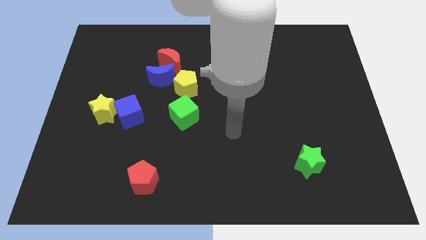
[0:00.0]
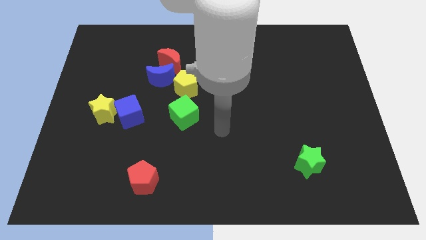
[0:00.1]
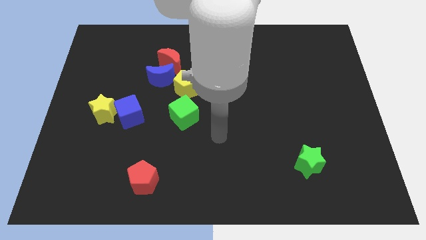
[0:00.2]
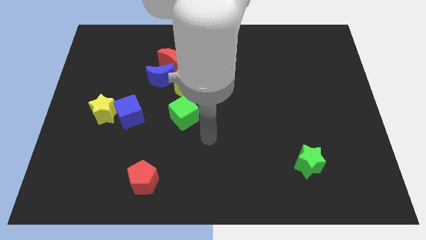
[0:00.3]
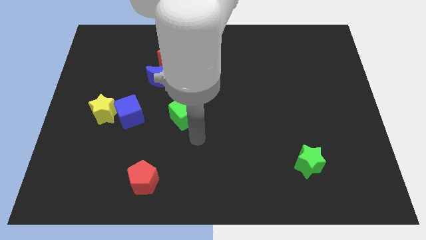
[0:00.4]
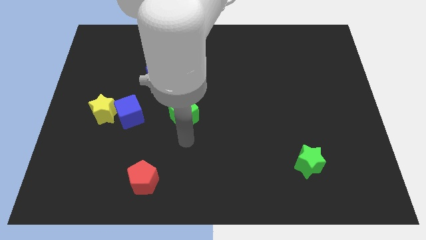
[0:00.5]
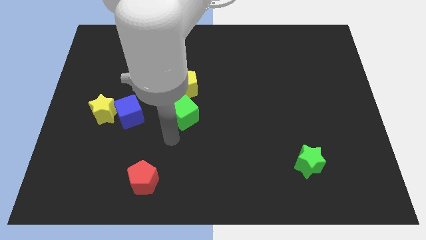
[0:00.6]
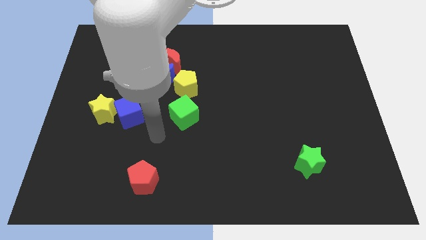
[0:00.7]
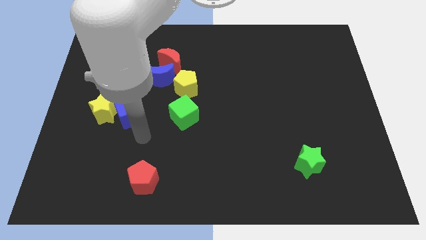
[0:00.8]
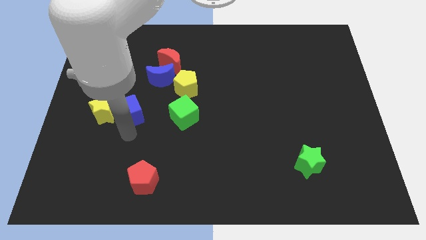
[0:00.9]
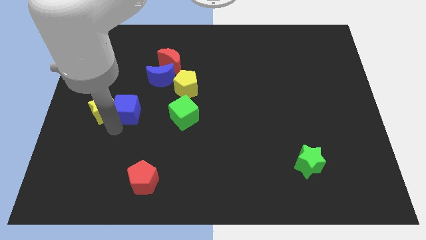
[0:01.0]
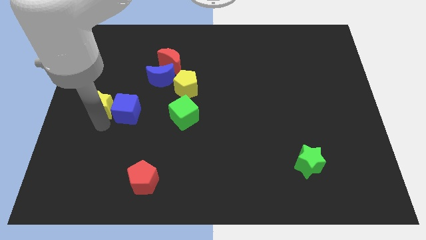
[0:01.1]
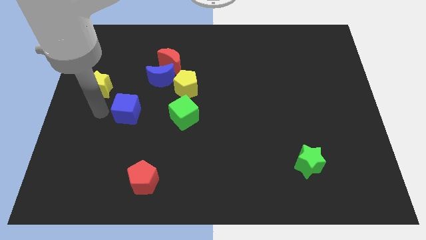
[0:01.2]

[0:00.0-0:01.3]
pull the blue cube apart from the yellow star

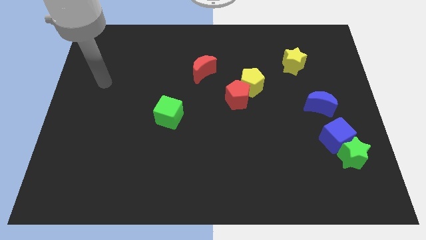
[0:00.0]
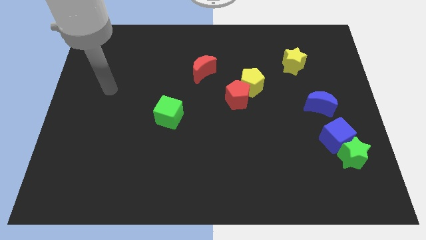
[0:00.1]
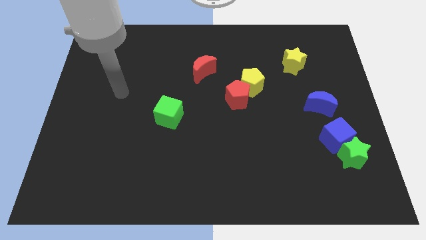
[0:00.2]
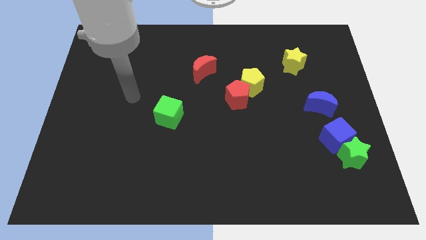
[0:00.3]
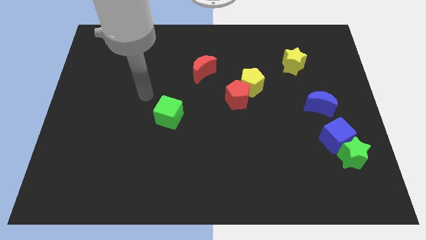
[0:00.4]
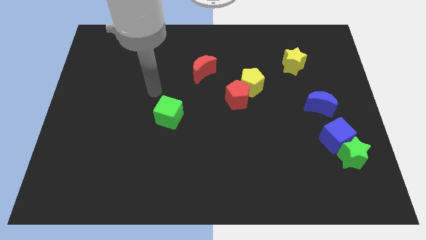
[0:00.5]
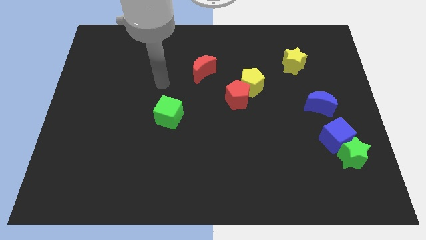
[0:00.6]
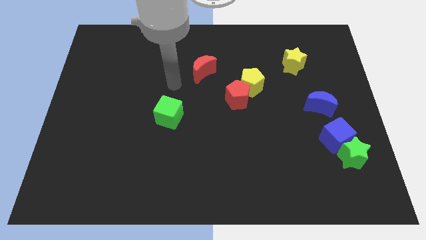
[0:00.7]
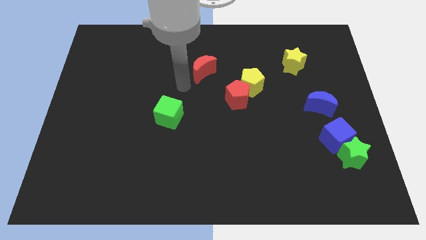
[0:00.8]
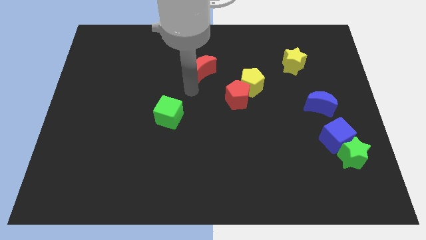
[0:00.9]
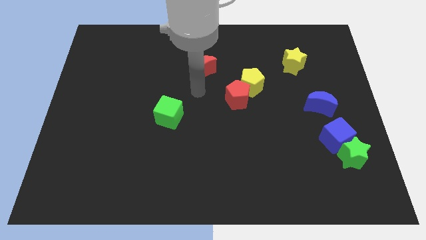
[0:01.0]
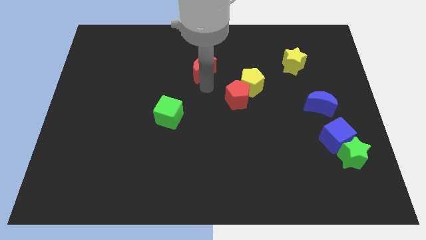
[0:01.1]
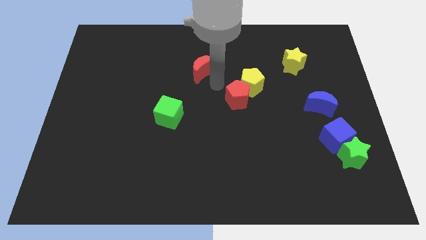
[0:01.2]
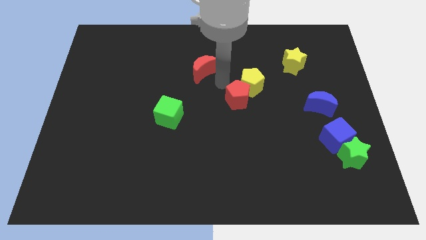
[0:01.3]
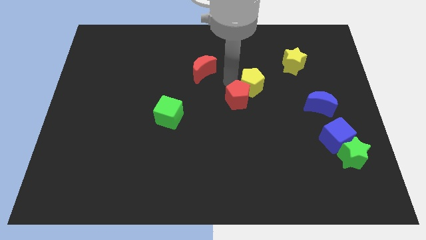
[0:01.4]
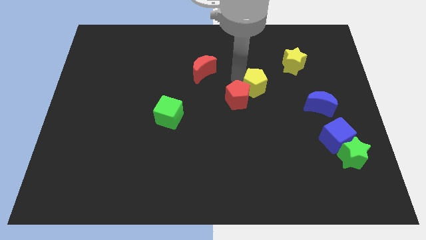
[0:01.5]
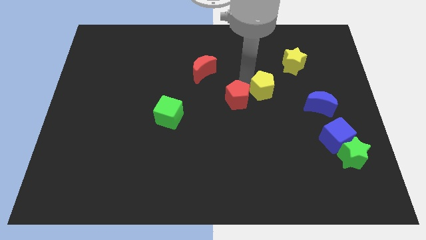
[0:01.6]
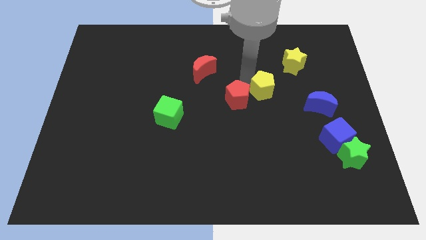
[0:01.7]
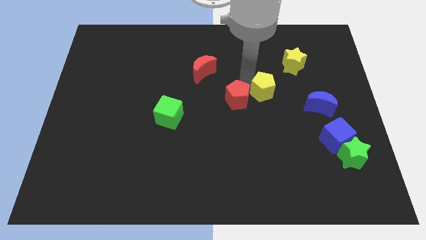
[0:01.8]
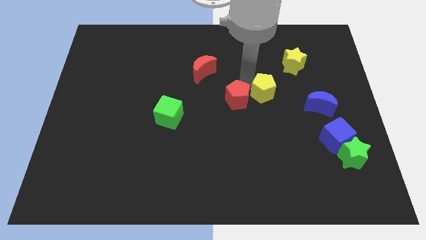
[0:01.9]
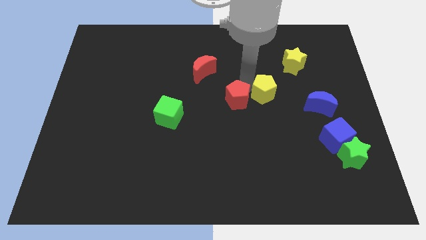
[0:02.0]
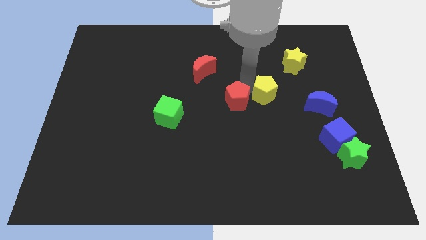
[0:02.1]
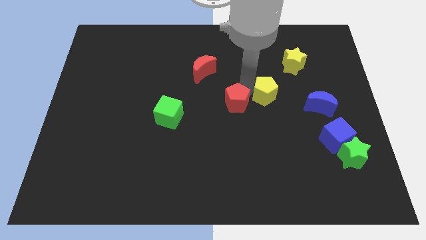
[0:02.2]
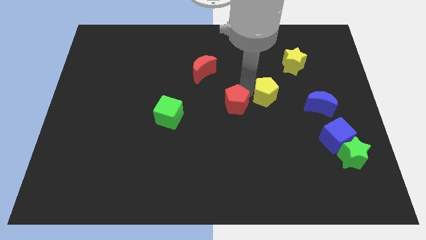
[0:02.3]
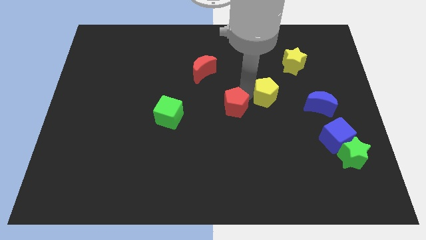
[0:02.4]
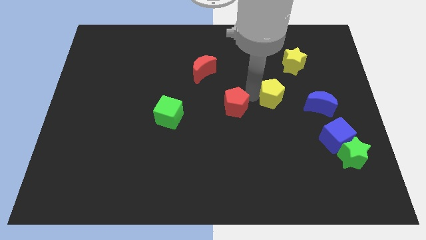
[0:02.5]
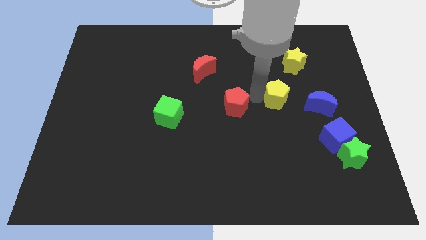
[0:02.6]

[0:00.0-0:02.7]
pull the red pentagon apart from the yellow pentagon

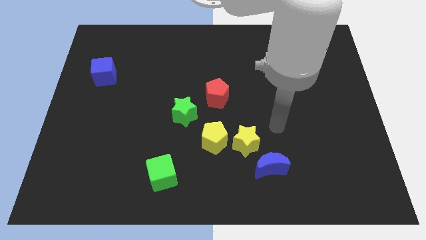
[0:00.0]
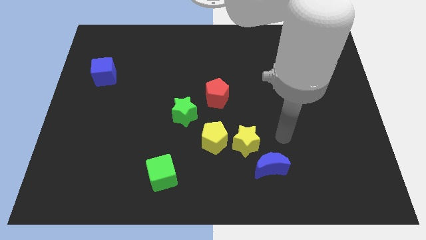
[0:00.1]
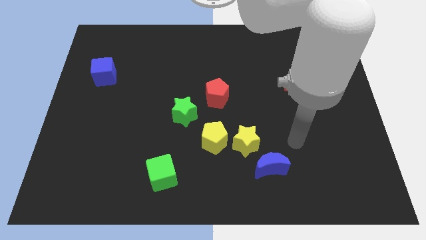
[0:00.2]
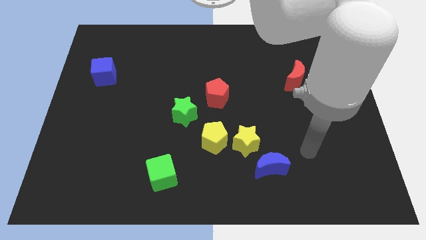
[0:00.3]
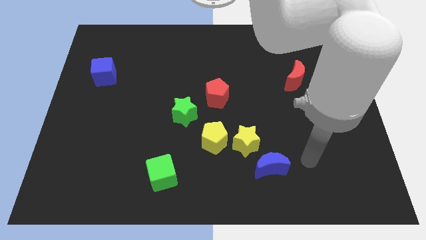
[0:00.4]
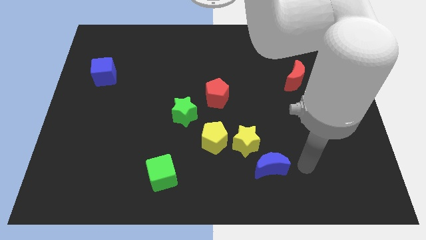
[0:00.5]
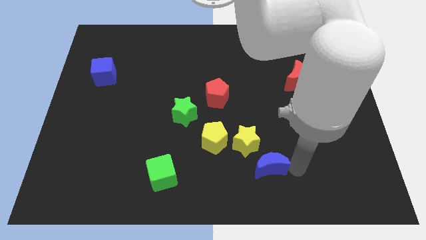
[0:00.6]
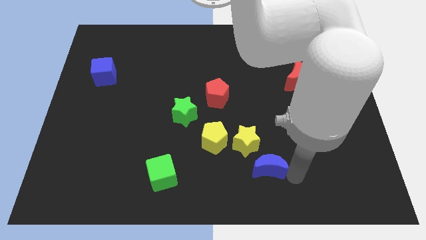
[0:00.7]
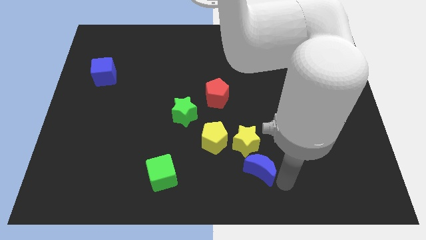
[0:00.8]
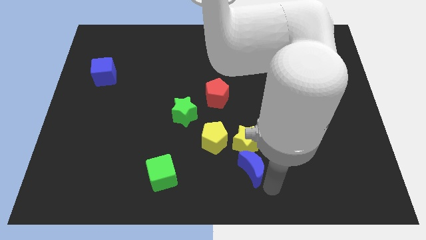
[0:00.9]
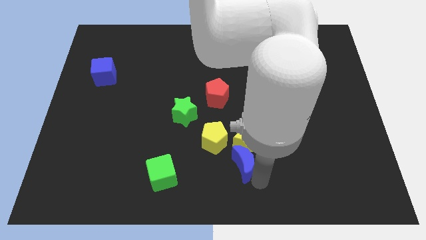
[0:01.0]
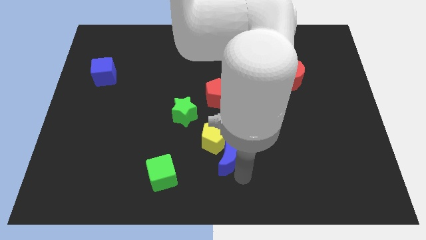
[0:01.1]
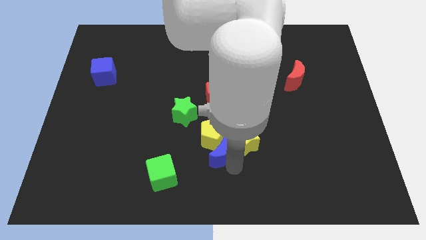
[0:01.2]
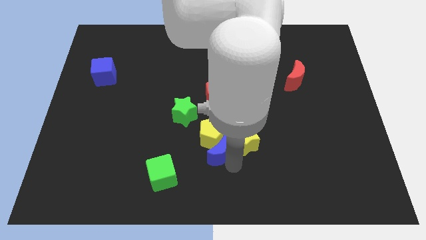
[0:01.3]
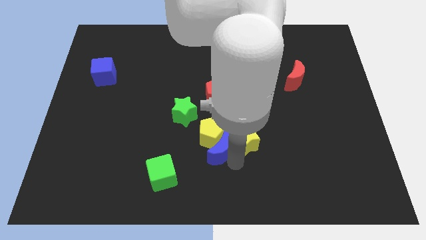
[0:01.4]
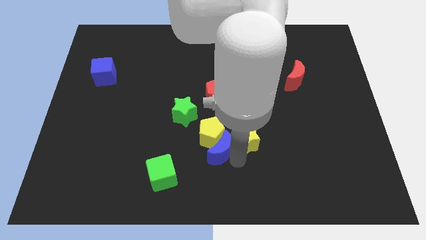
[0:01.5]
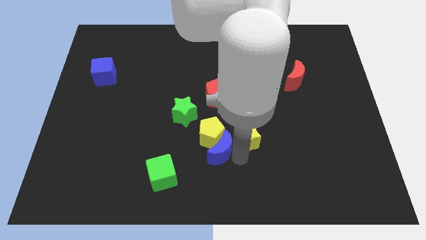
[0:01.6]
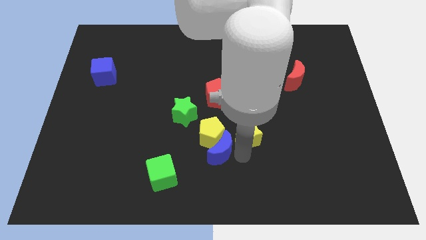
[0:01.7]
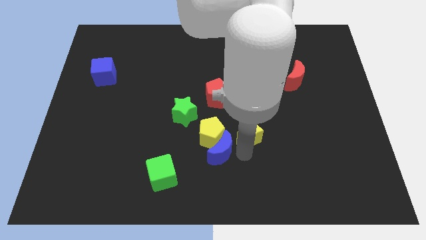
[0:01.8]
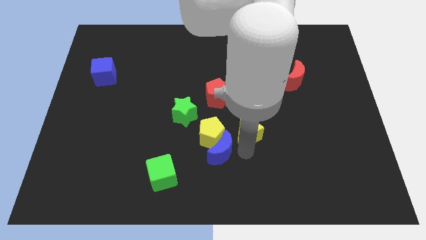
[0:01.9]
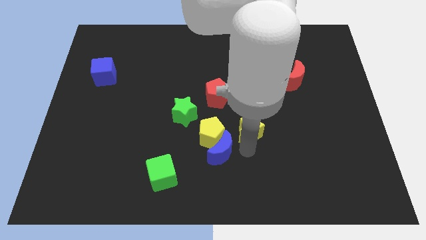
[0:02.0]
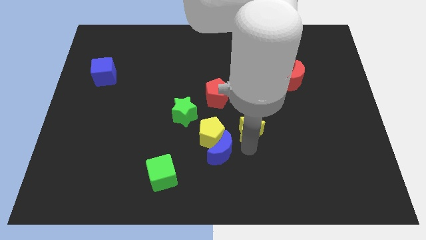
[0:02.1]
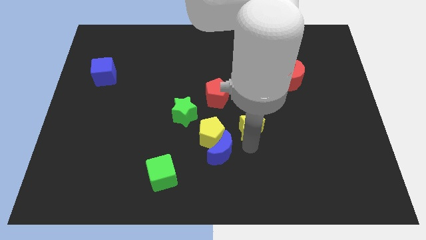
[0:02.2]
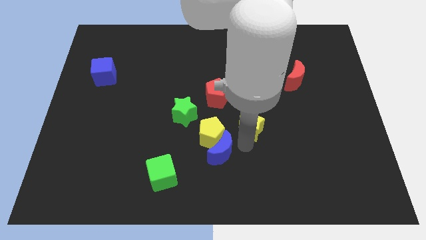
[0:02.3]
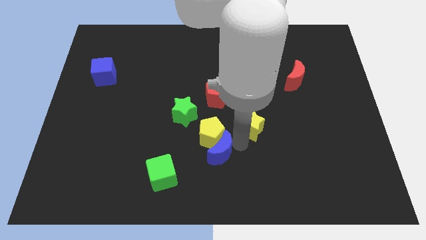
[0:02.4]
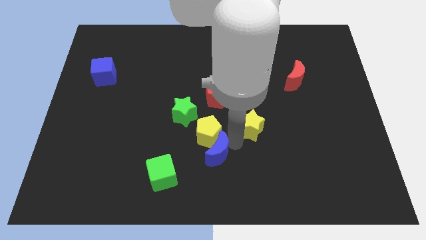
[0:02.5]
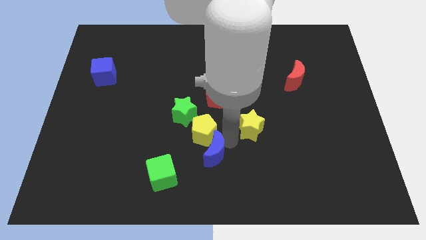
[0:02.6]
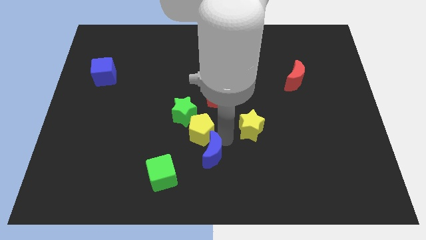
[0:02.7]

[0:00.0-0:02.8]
separate the yellow star from the yellow pentagon and blue moon

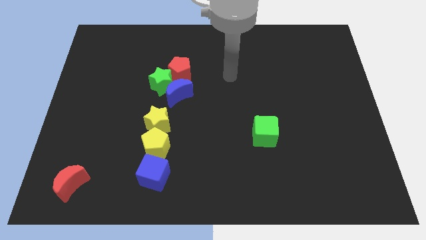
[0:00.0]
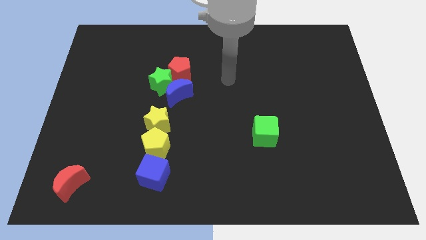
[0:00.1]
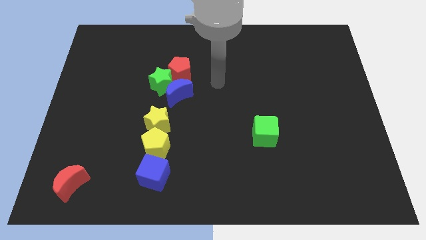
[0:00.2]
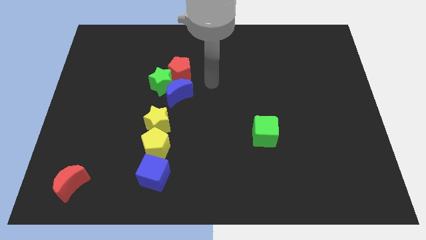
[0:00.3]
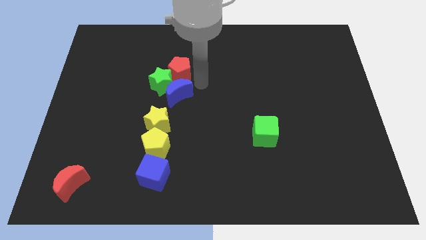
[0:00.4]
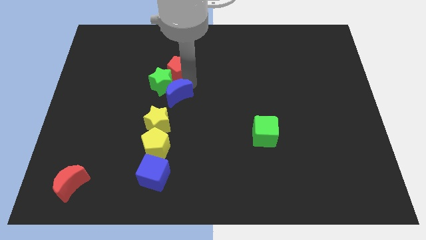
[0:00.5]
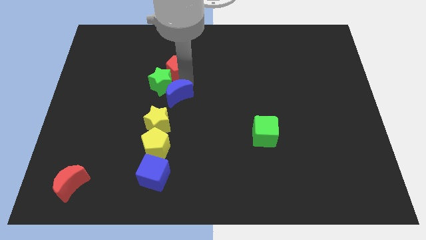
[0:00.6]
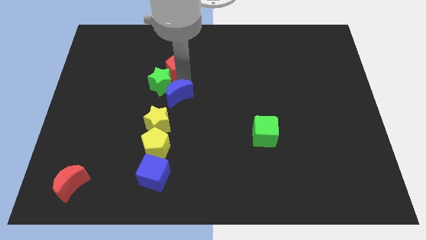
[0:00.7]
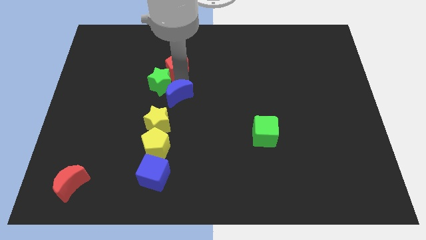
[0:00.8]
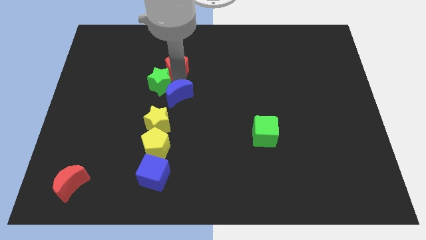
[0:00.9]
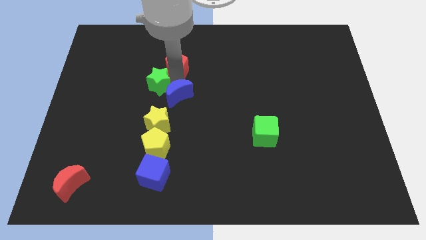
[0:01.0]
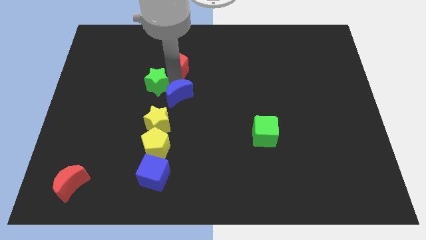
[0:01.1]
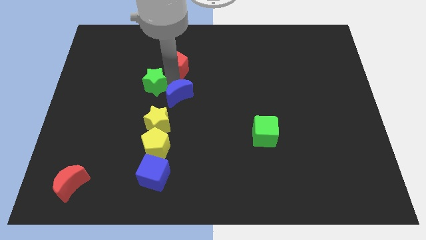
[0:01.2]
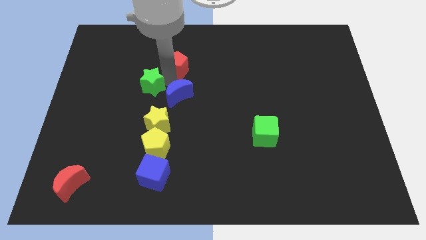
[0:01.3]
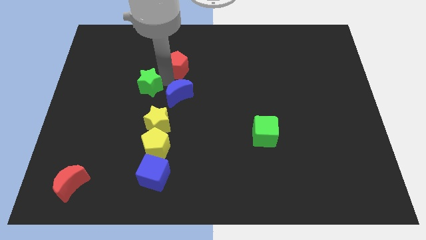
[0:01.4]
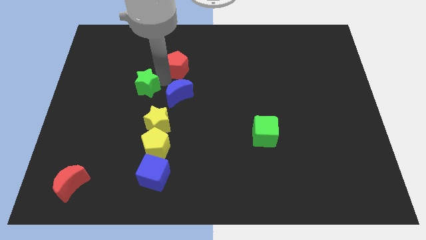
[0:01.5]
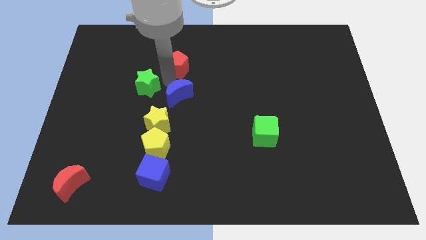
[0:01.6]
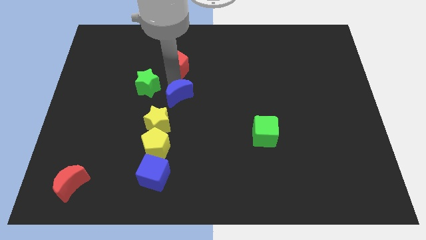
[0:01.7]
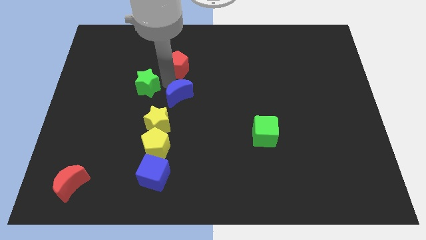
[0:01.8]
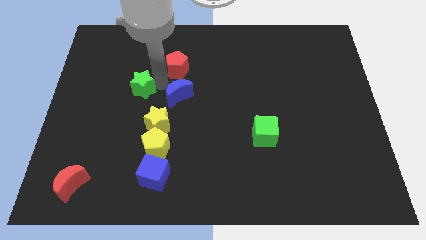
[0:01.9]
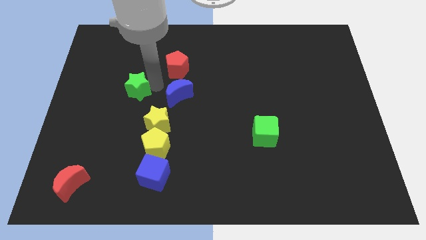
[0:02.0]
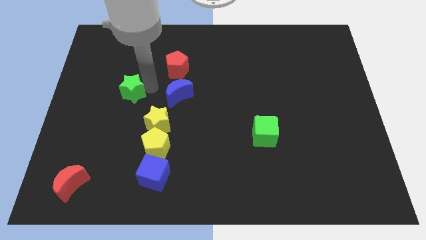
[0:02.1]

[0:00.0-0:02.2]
move the green star away from the blue moon and red pentagon

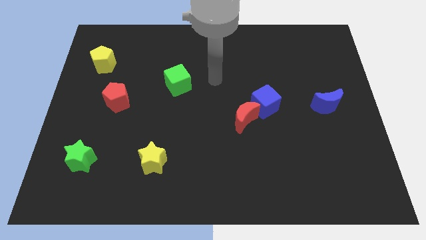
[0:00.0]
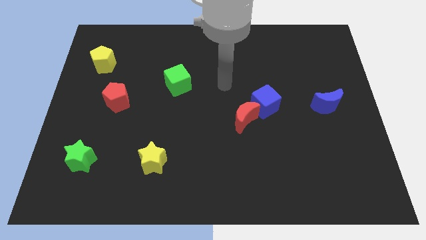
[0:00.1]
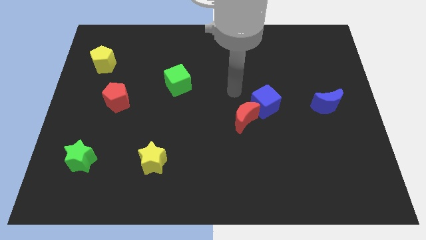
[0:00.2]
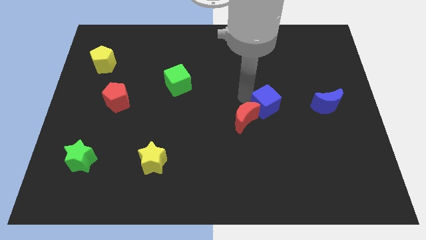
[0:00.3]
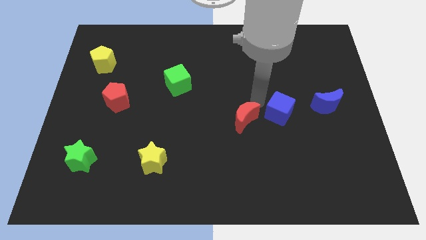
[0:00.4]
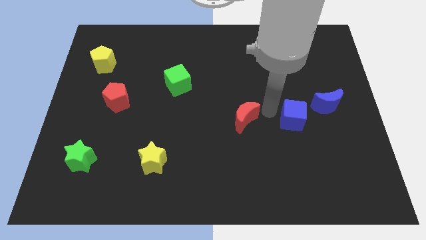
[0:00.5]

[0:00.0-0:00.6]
separate the red moon from the blue cube
